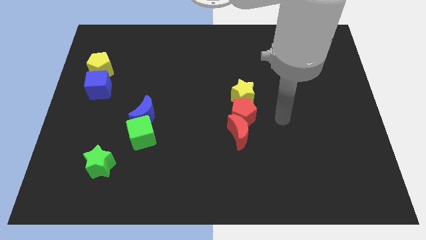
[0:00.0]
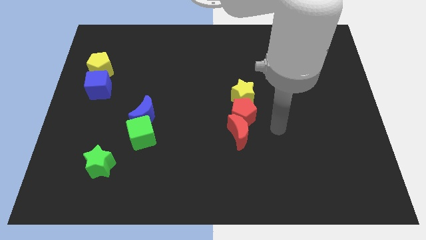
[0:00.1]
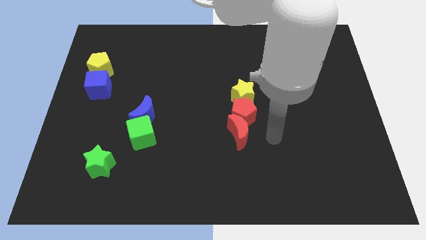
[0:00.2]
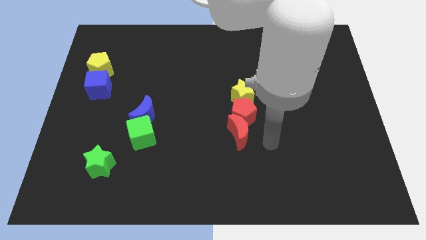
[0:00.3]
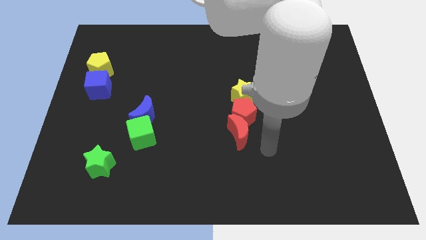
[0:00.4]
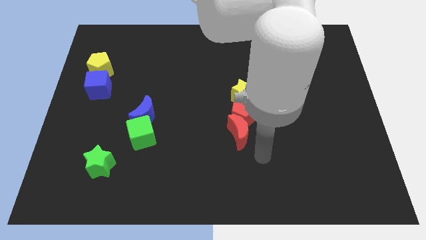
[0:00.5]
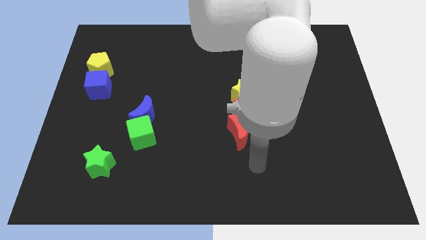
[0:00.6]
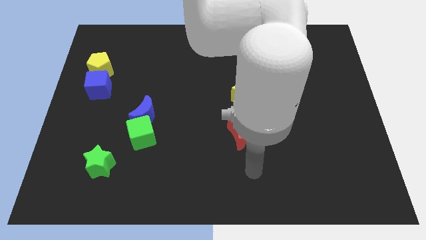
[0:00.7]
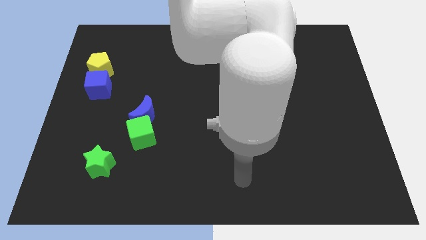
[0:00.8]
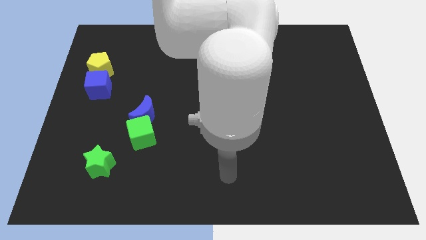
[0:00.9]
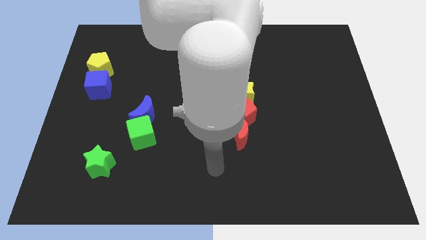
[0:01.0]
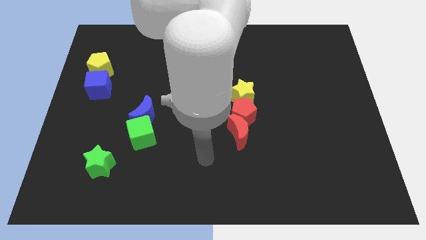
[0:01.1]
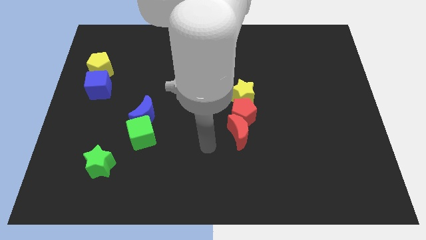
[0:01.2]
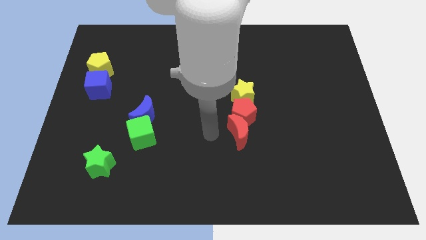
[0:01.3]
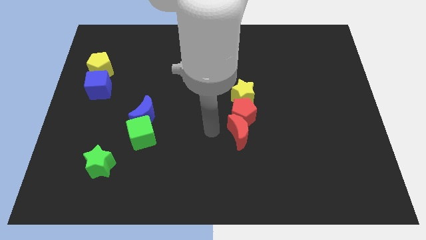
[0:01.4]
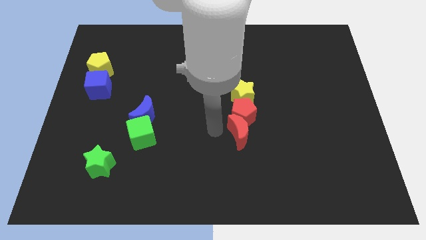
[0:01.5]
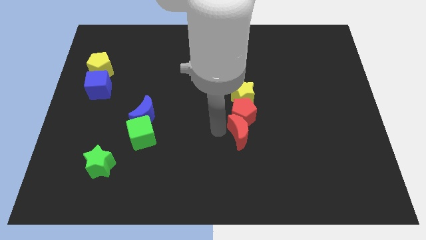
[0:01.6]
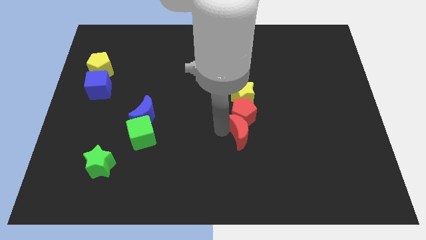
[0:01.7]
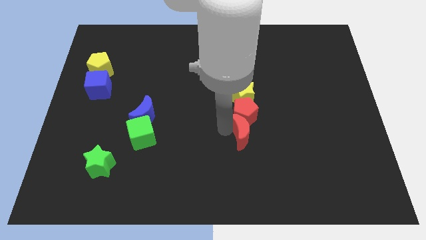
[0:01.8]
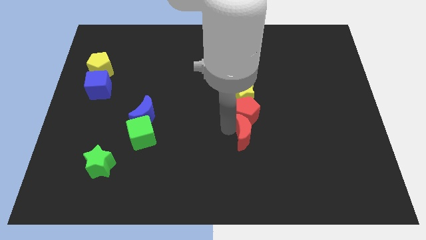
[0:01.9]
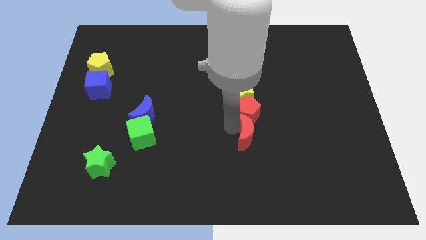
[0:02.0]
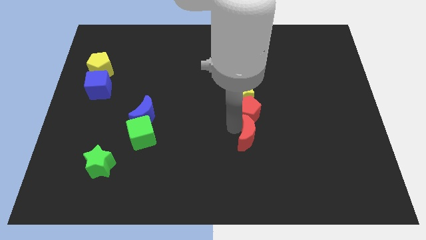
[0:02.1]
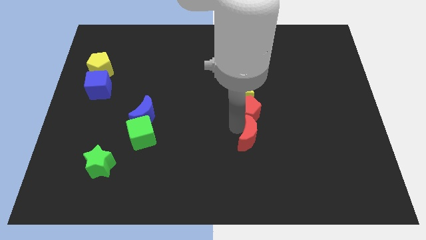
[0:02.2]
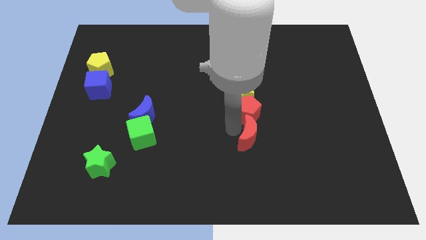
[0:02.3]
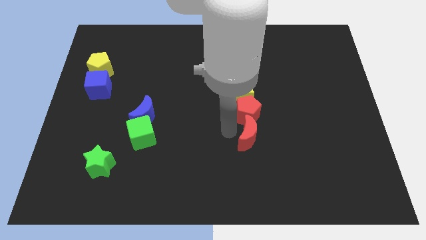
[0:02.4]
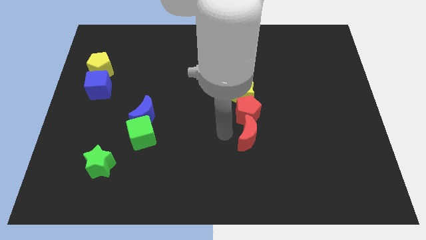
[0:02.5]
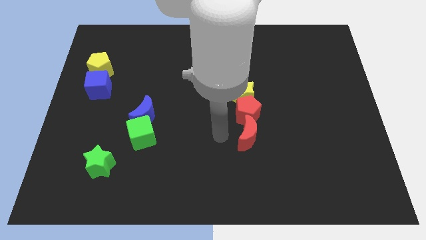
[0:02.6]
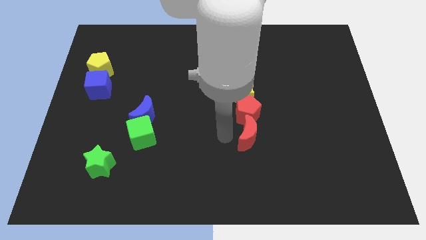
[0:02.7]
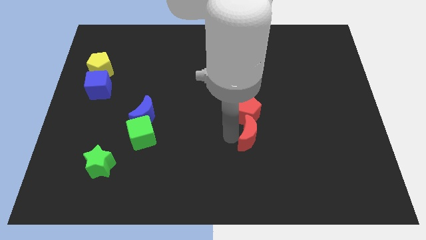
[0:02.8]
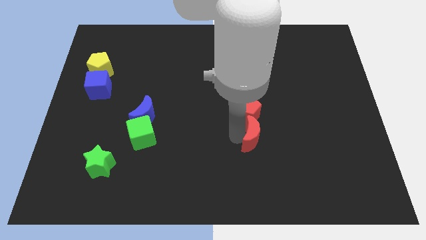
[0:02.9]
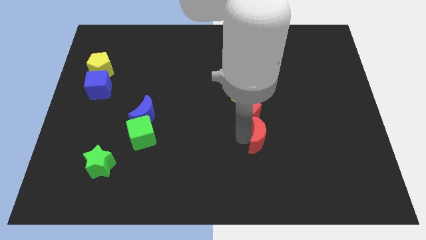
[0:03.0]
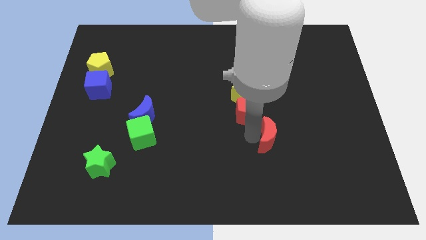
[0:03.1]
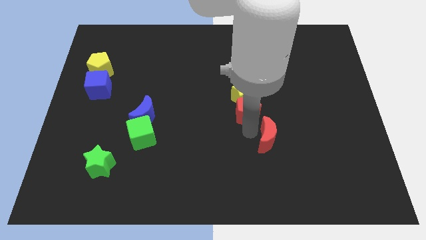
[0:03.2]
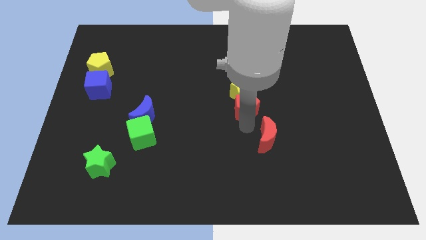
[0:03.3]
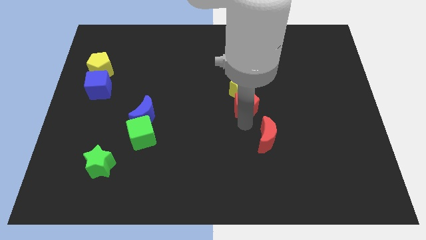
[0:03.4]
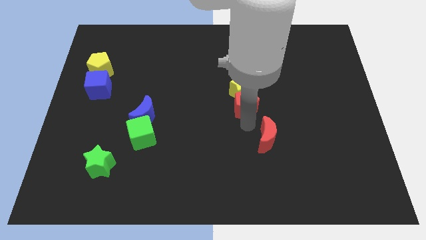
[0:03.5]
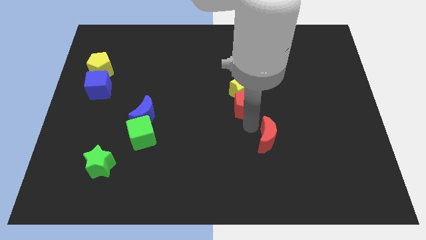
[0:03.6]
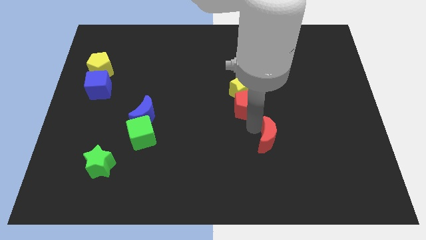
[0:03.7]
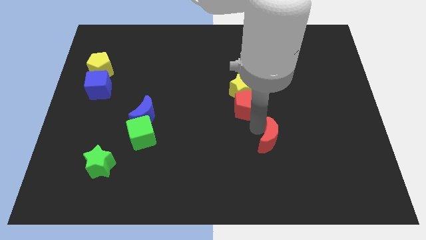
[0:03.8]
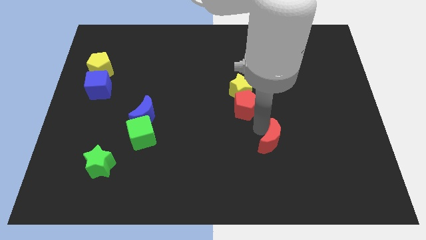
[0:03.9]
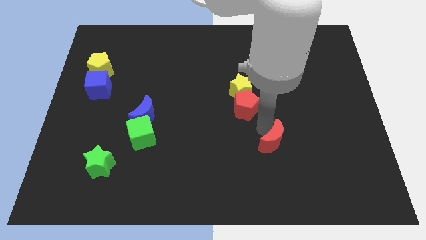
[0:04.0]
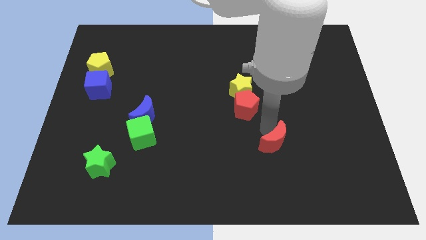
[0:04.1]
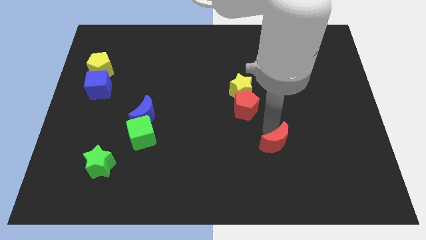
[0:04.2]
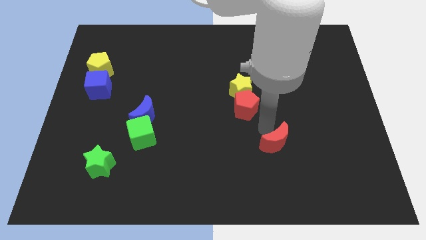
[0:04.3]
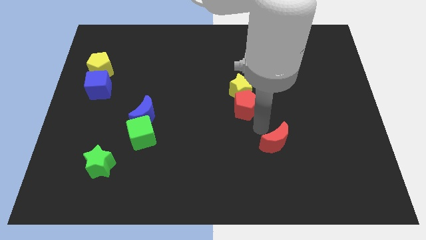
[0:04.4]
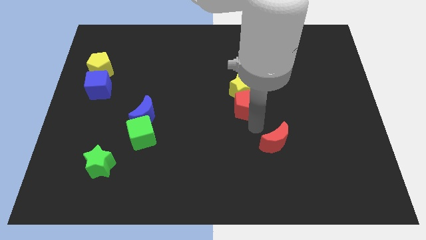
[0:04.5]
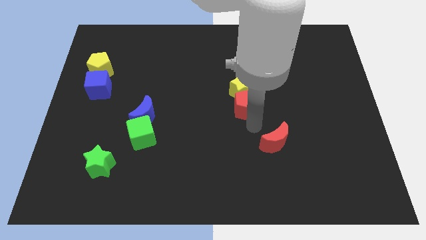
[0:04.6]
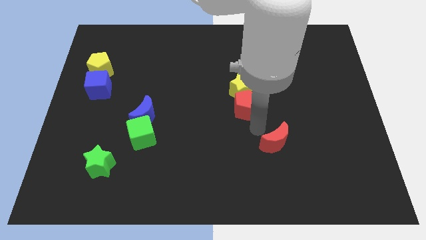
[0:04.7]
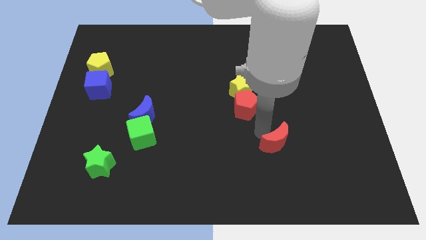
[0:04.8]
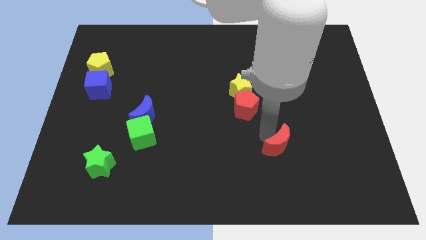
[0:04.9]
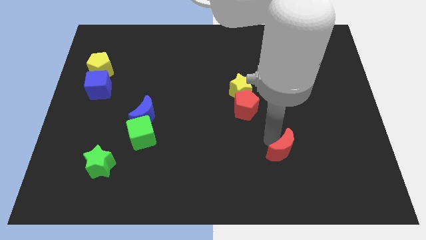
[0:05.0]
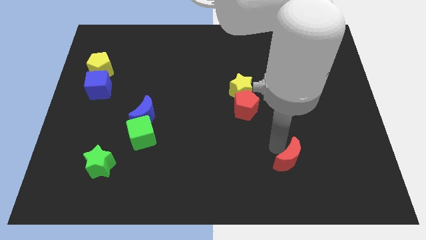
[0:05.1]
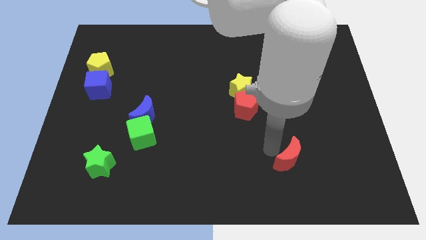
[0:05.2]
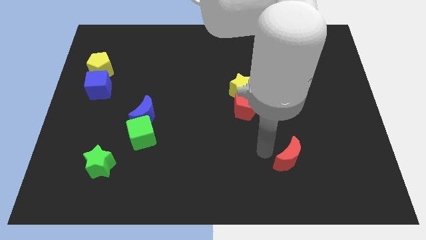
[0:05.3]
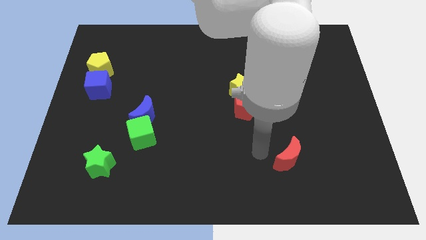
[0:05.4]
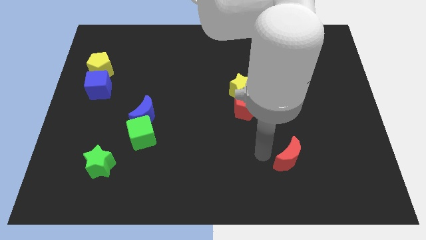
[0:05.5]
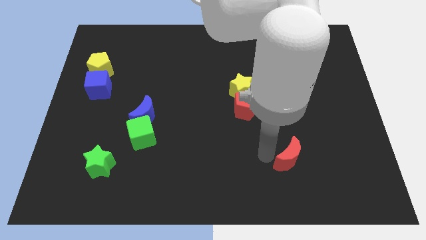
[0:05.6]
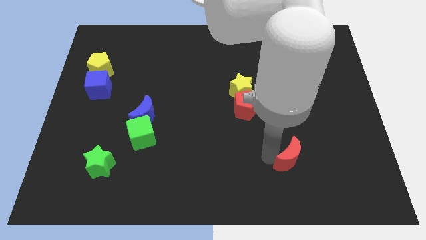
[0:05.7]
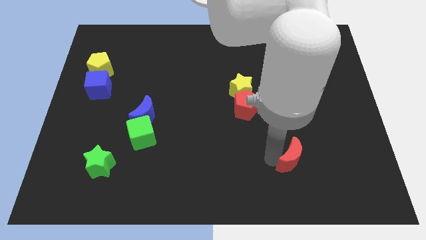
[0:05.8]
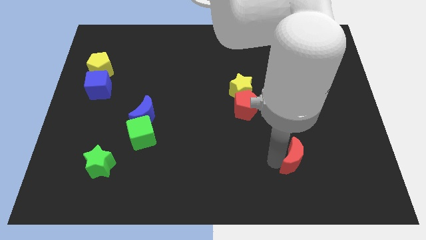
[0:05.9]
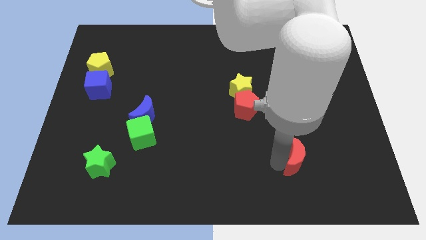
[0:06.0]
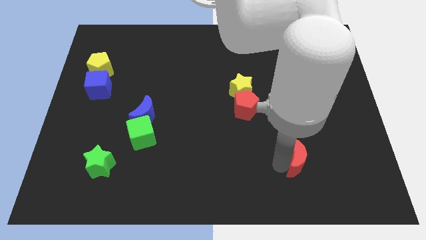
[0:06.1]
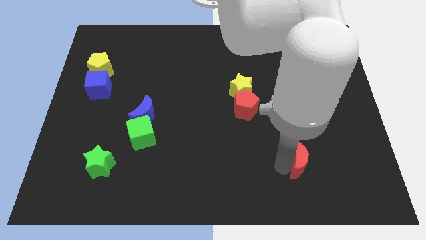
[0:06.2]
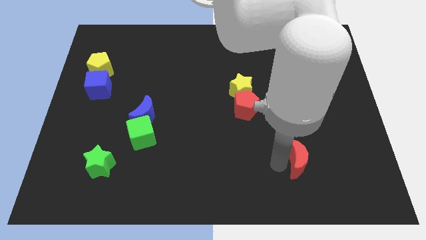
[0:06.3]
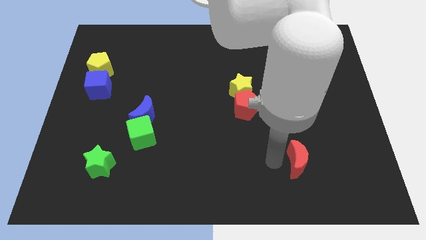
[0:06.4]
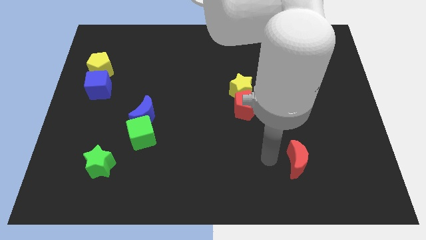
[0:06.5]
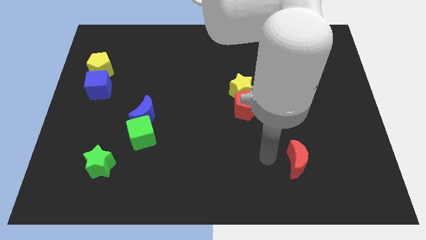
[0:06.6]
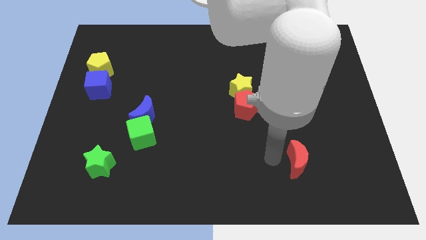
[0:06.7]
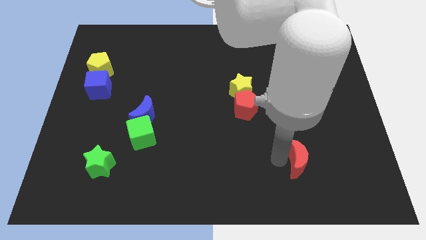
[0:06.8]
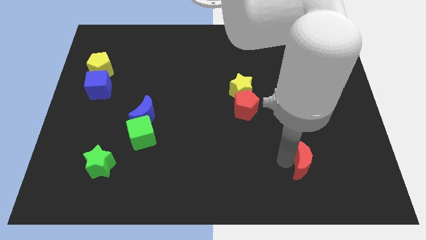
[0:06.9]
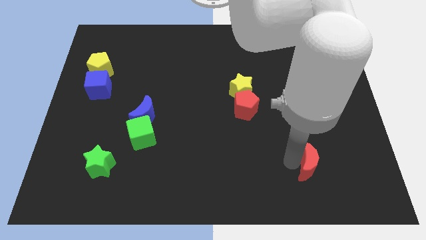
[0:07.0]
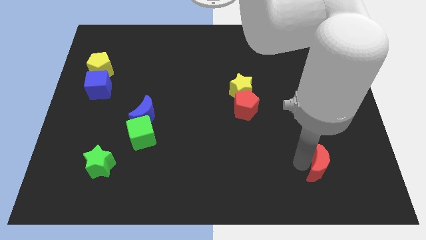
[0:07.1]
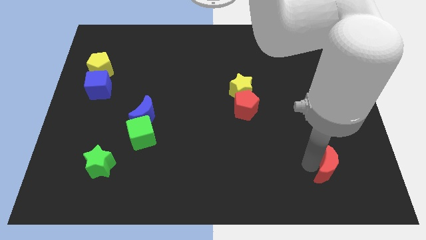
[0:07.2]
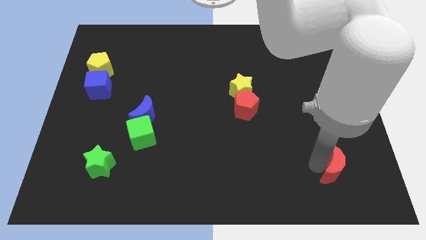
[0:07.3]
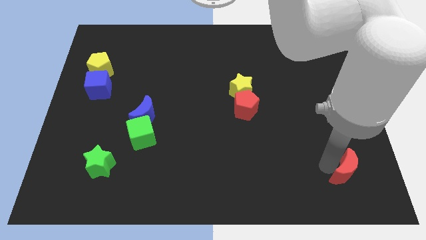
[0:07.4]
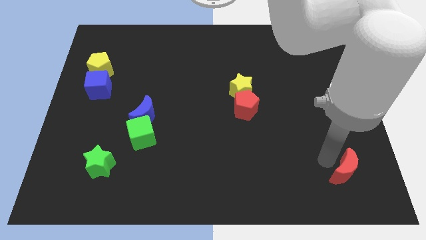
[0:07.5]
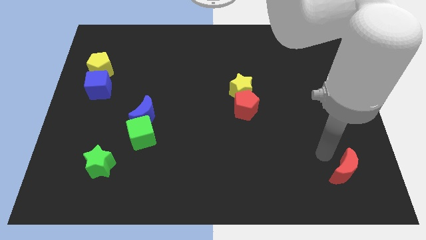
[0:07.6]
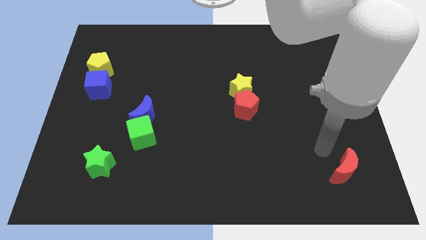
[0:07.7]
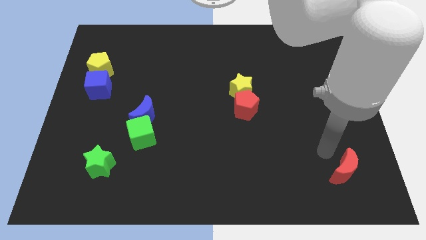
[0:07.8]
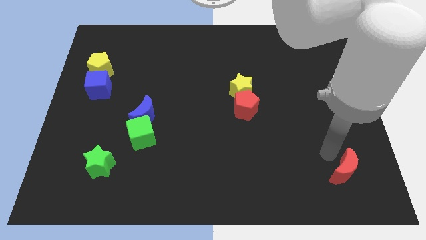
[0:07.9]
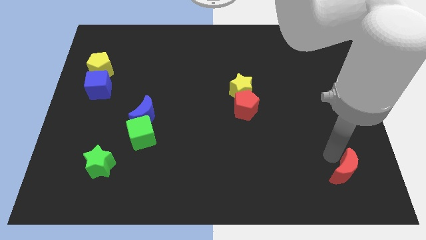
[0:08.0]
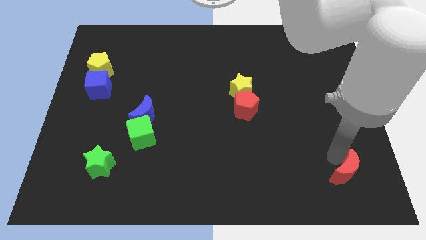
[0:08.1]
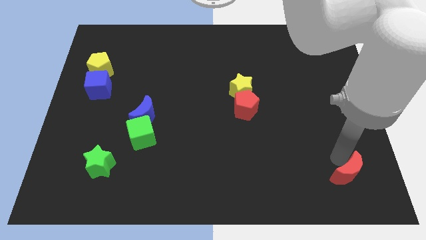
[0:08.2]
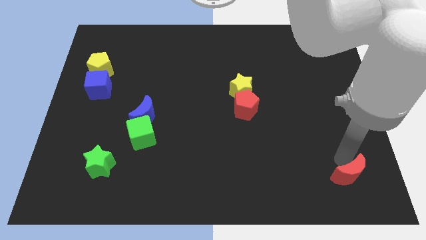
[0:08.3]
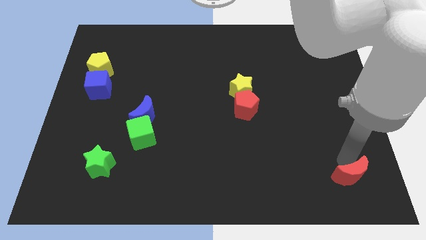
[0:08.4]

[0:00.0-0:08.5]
push the red moon to the lower right corner
